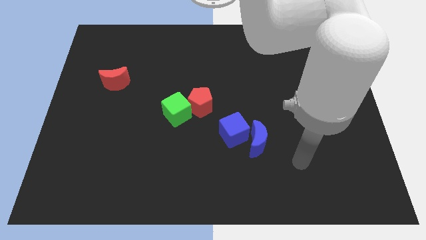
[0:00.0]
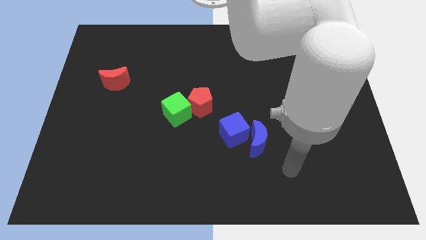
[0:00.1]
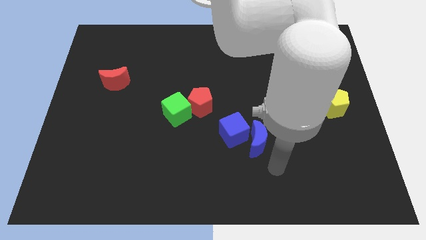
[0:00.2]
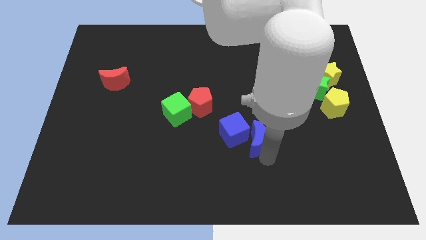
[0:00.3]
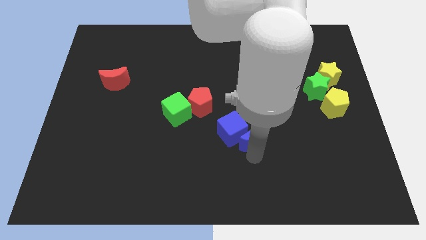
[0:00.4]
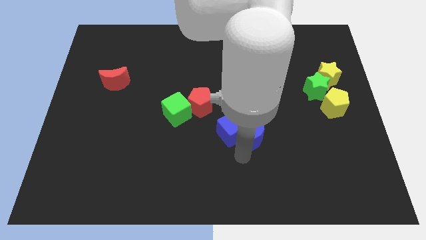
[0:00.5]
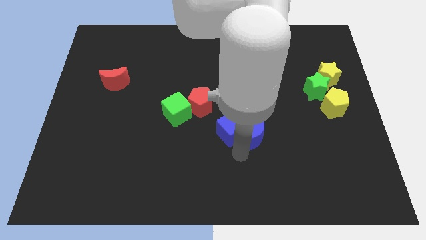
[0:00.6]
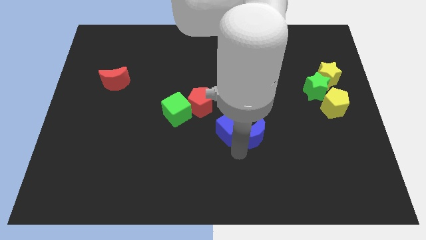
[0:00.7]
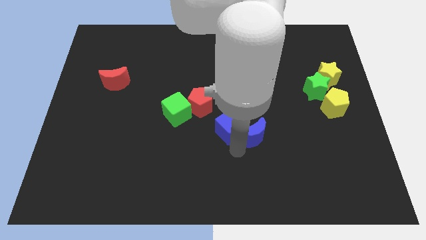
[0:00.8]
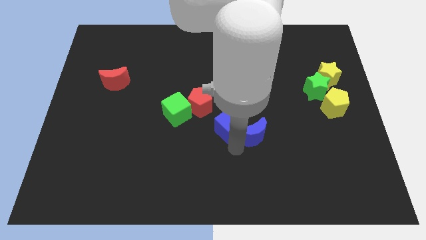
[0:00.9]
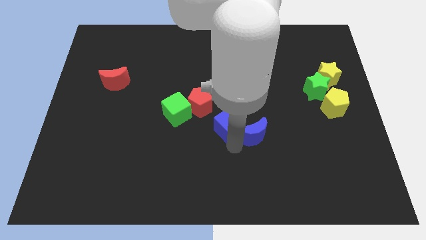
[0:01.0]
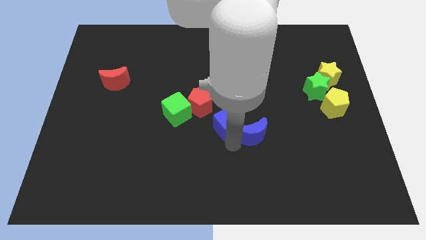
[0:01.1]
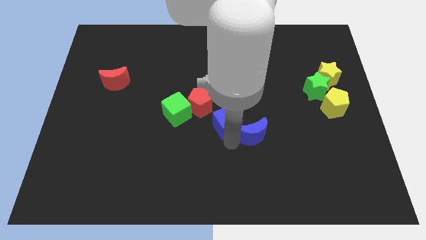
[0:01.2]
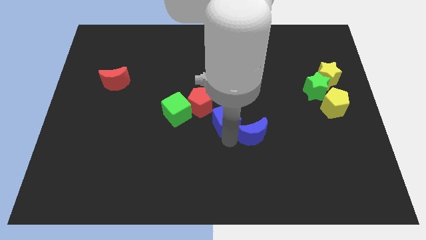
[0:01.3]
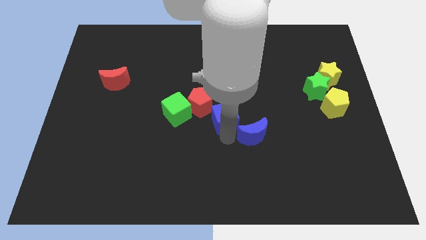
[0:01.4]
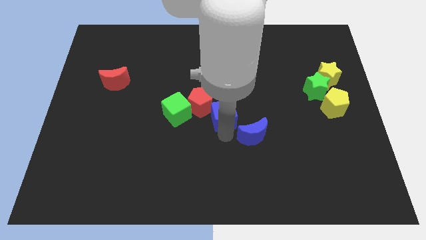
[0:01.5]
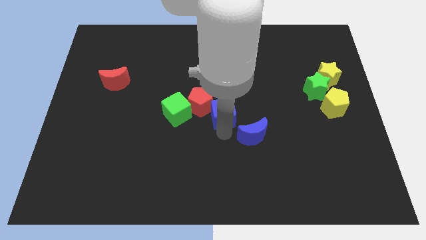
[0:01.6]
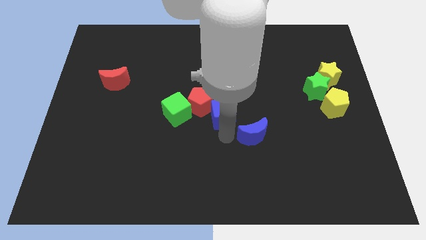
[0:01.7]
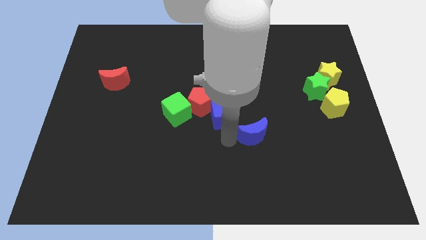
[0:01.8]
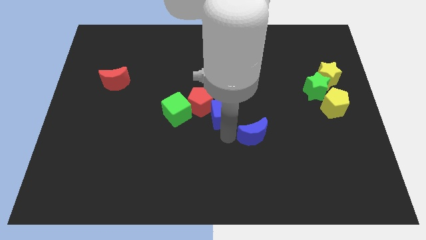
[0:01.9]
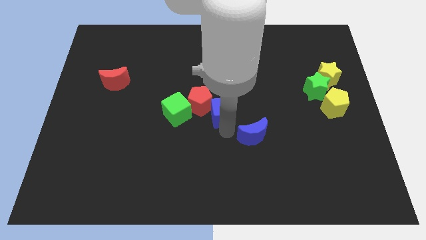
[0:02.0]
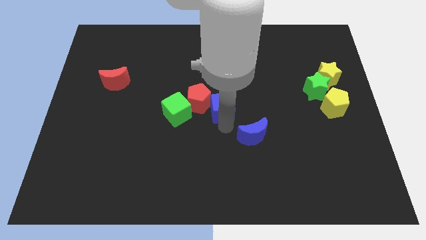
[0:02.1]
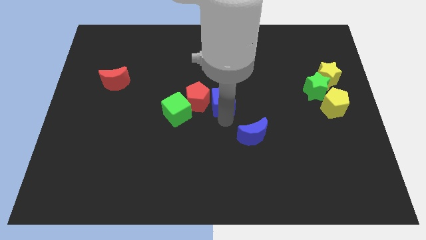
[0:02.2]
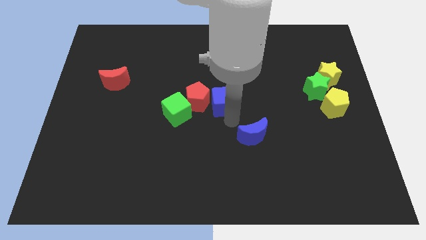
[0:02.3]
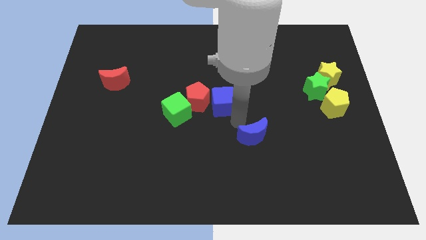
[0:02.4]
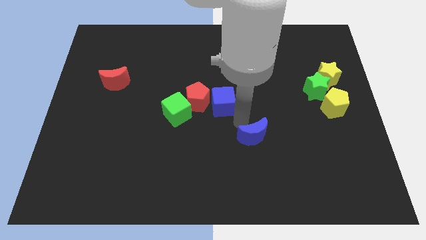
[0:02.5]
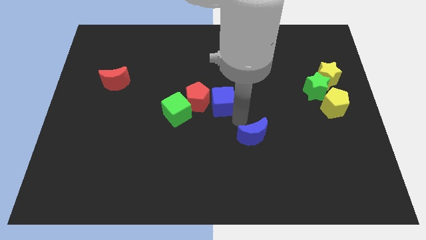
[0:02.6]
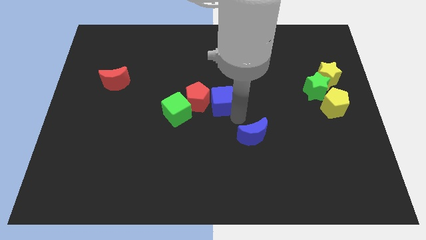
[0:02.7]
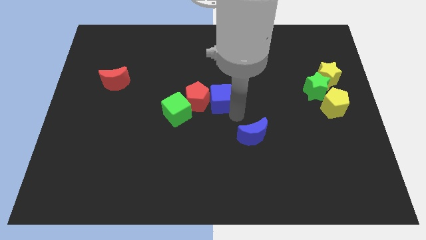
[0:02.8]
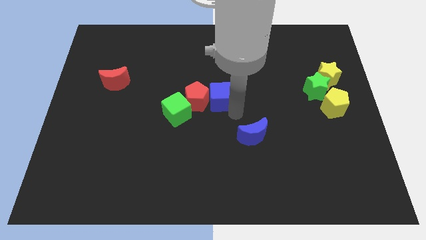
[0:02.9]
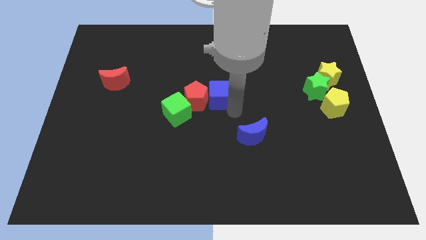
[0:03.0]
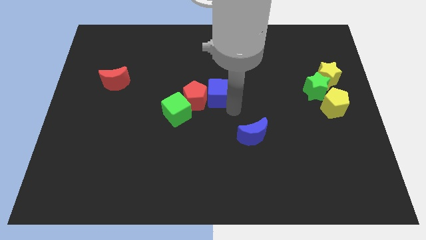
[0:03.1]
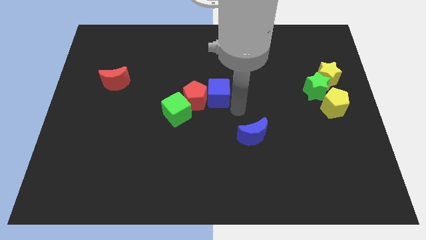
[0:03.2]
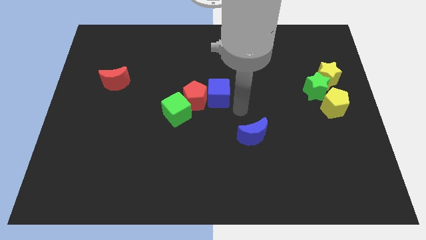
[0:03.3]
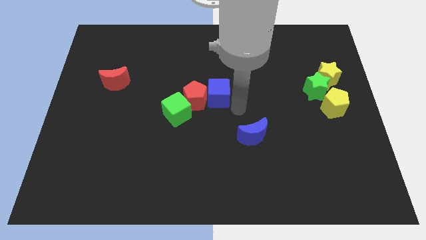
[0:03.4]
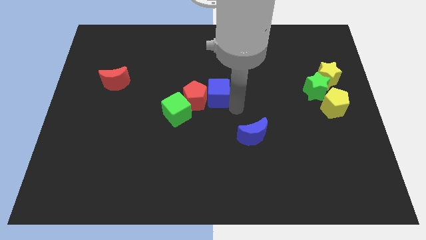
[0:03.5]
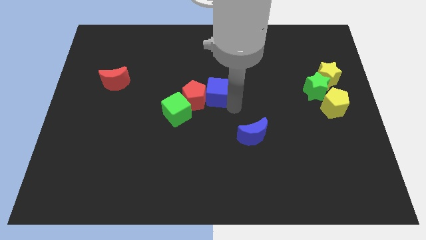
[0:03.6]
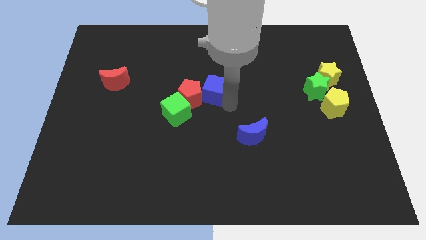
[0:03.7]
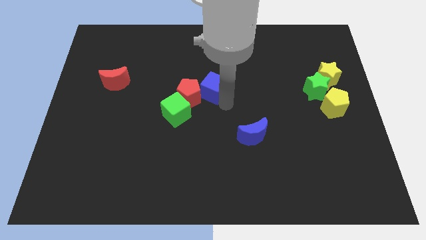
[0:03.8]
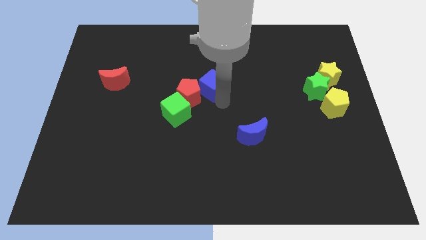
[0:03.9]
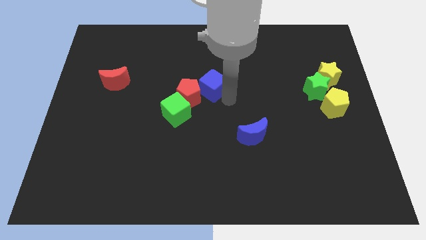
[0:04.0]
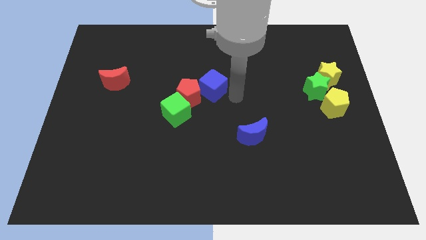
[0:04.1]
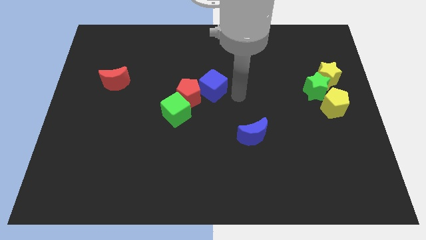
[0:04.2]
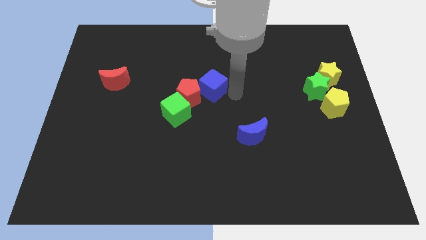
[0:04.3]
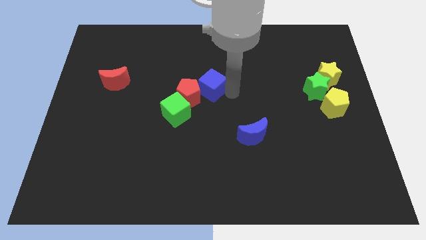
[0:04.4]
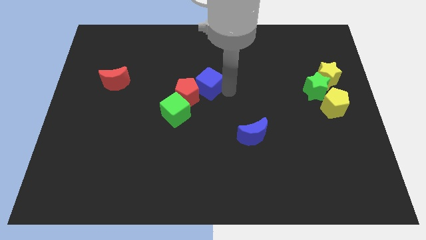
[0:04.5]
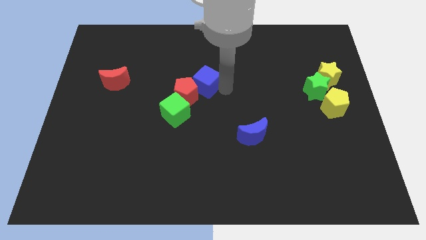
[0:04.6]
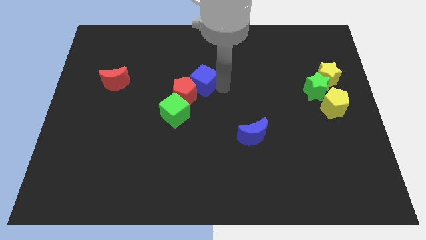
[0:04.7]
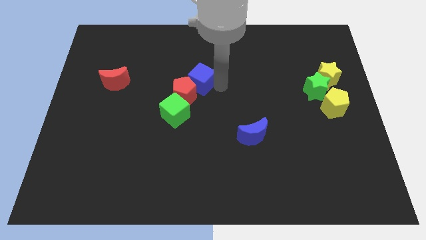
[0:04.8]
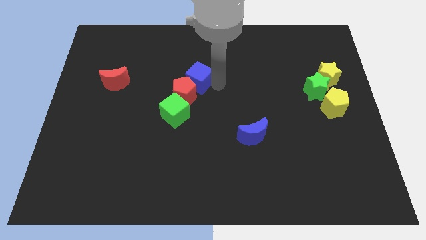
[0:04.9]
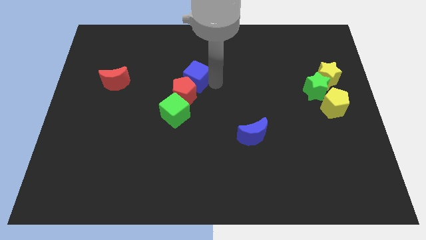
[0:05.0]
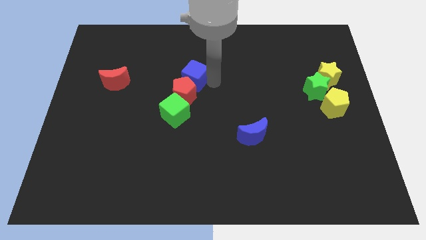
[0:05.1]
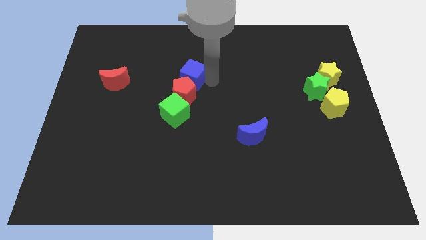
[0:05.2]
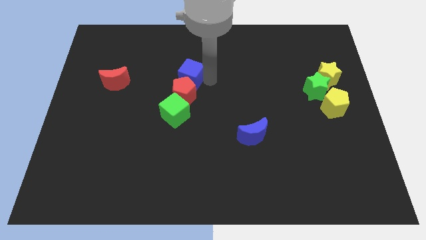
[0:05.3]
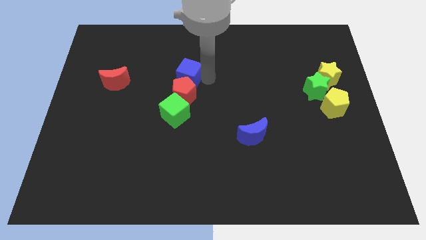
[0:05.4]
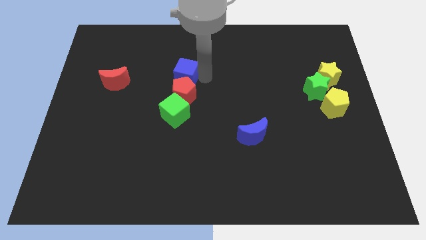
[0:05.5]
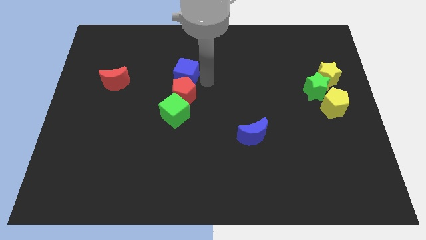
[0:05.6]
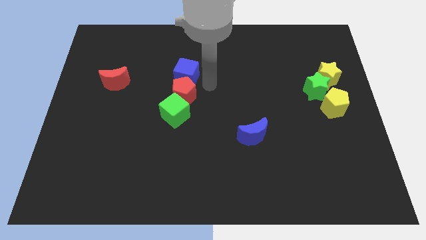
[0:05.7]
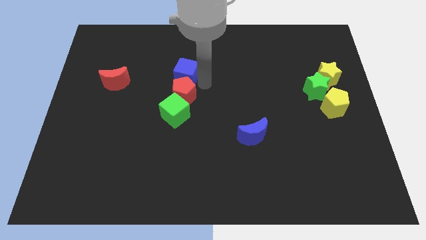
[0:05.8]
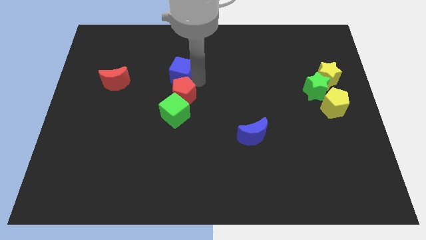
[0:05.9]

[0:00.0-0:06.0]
slide the blue cube up and left

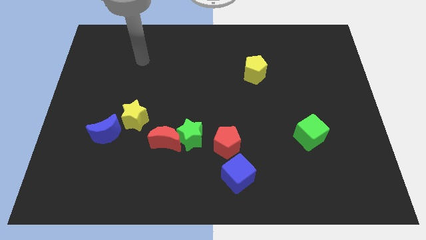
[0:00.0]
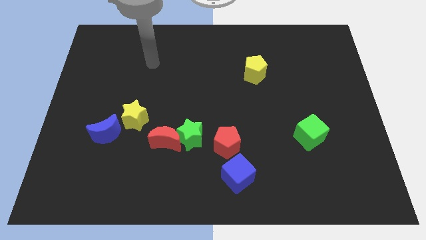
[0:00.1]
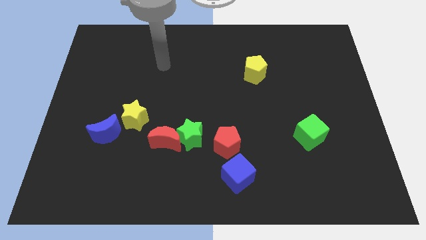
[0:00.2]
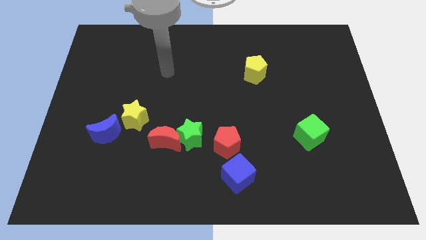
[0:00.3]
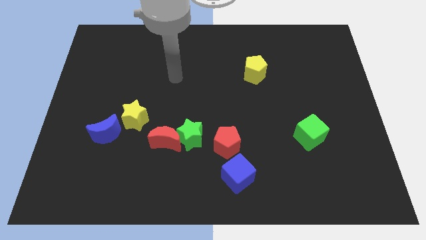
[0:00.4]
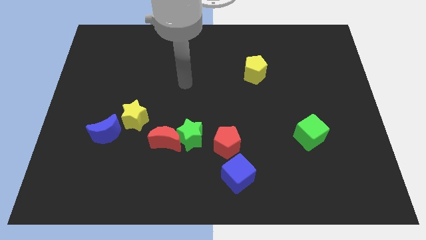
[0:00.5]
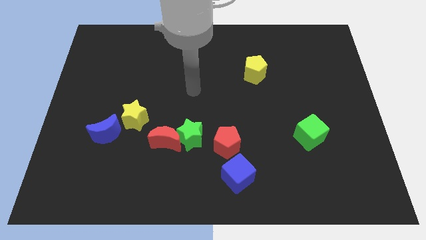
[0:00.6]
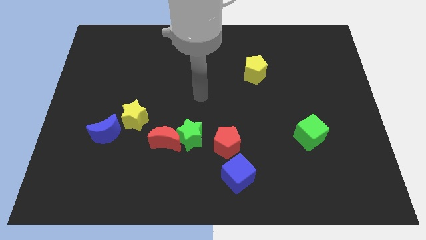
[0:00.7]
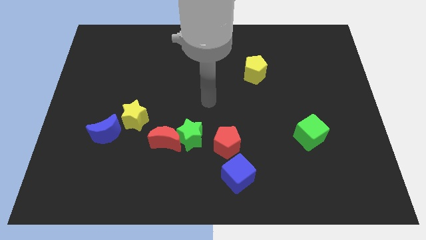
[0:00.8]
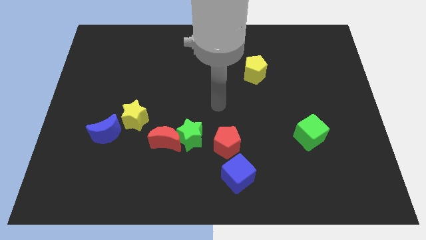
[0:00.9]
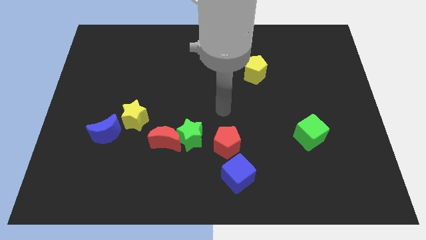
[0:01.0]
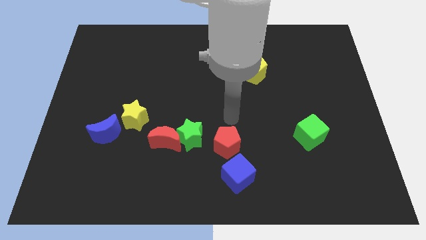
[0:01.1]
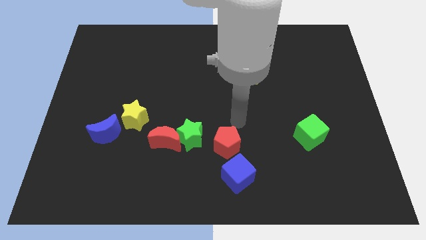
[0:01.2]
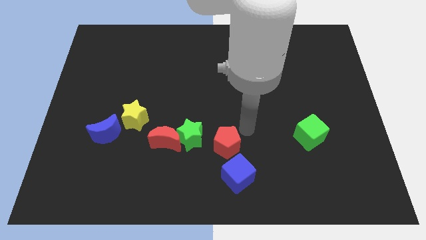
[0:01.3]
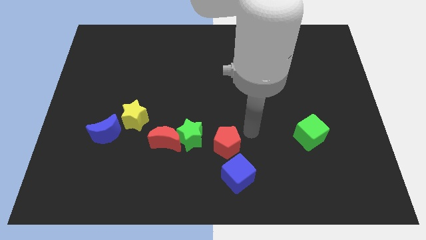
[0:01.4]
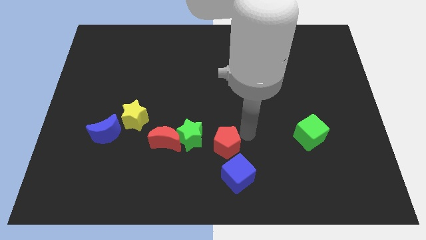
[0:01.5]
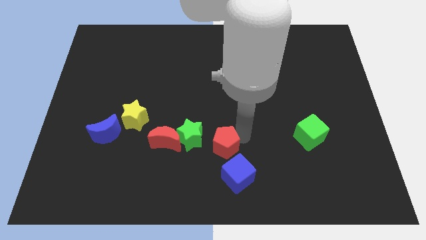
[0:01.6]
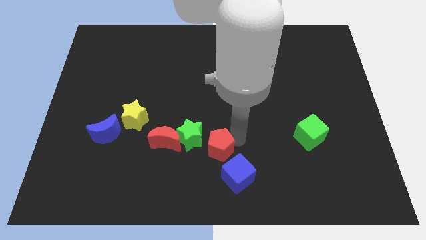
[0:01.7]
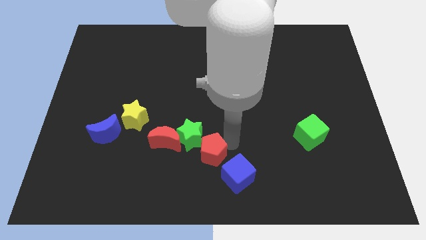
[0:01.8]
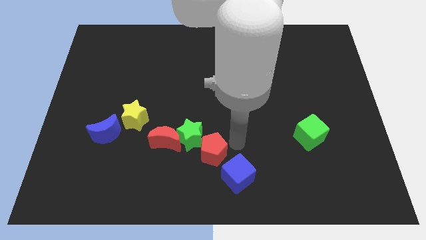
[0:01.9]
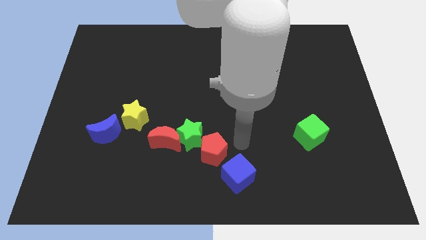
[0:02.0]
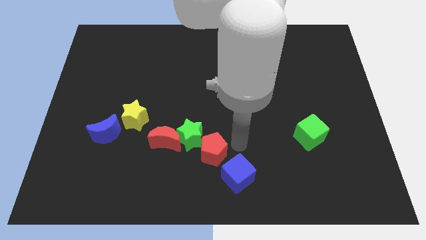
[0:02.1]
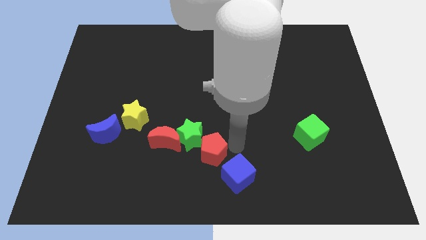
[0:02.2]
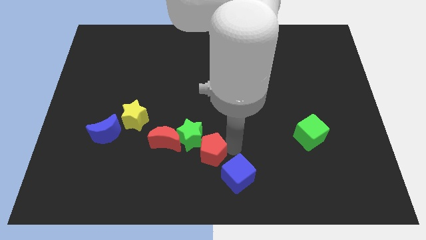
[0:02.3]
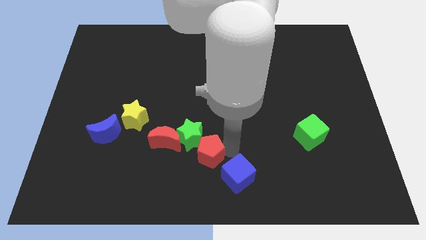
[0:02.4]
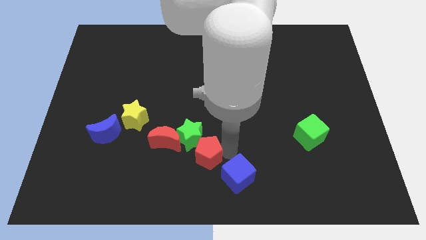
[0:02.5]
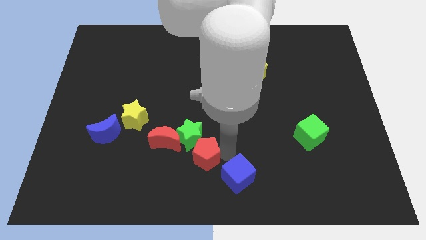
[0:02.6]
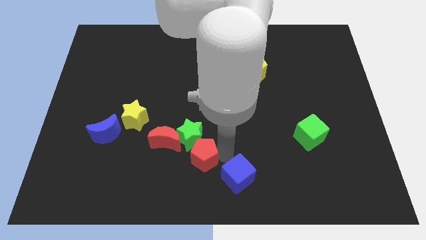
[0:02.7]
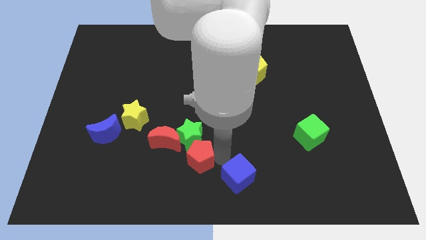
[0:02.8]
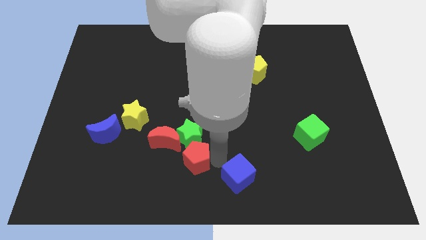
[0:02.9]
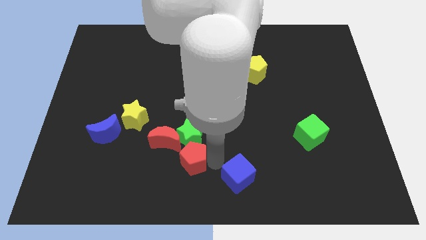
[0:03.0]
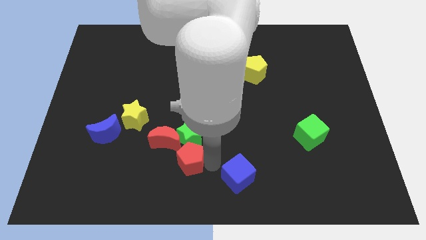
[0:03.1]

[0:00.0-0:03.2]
slide the red pentagon somewhat left
